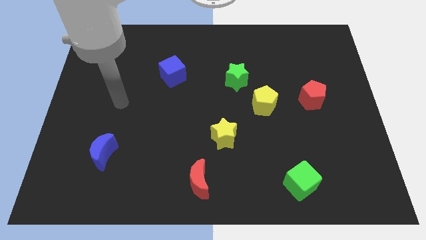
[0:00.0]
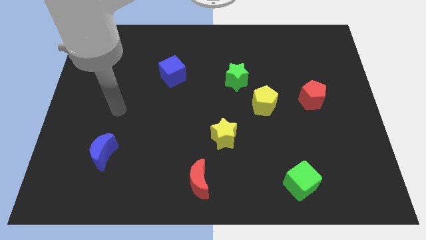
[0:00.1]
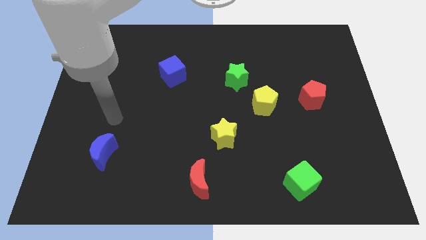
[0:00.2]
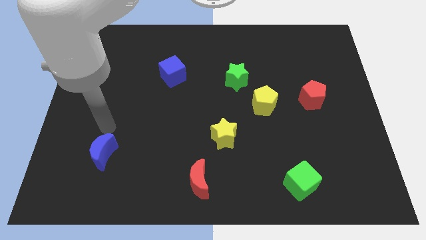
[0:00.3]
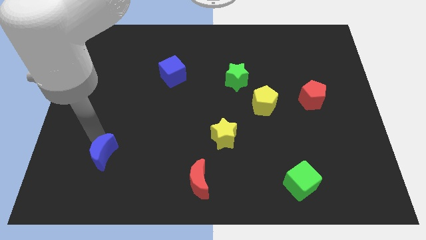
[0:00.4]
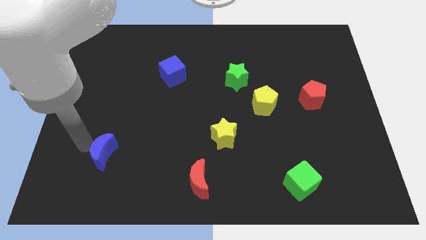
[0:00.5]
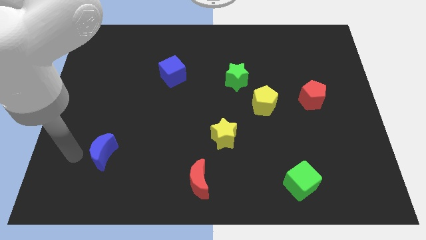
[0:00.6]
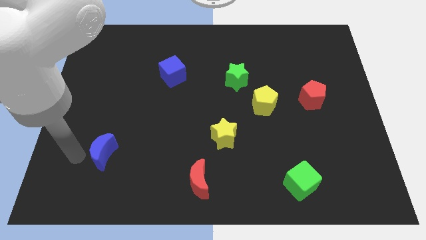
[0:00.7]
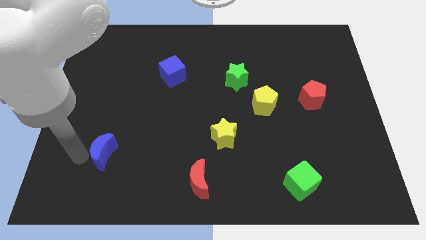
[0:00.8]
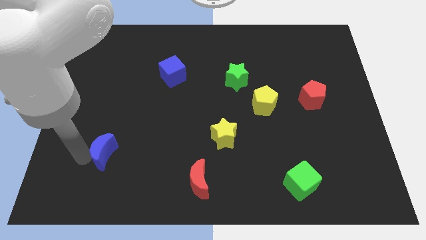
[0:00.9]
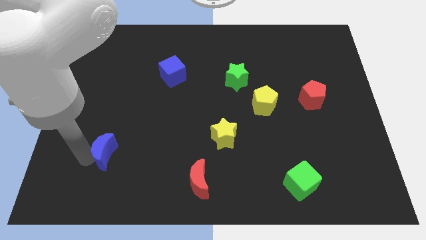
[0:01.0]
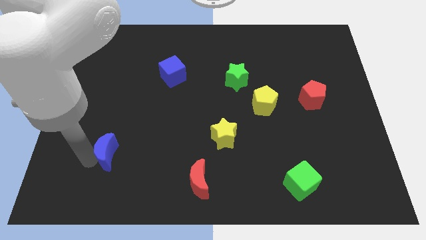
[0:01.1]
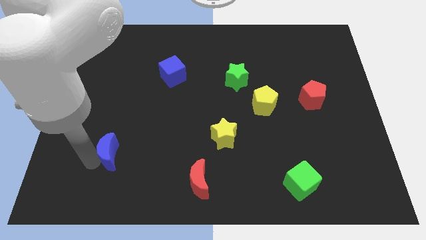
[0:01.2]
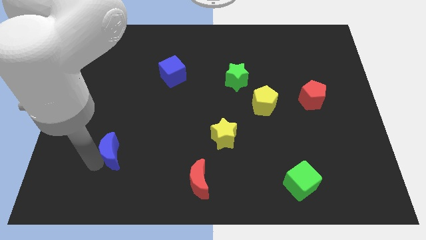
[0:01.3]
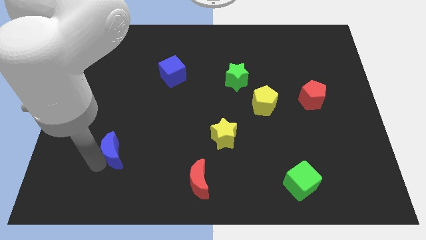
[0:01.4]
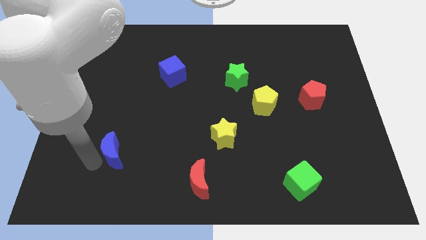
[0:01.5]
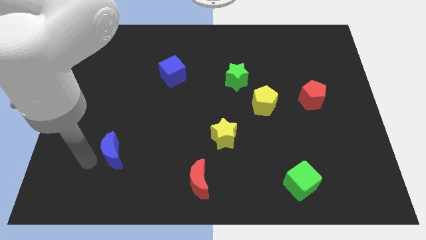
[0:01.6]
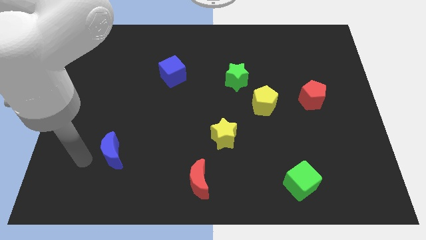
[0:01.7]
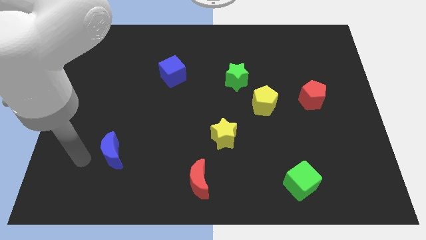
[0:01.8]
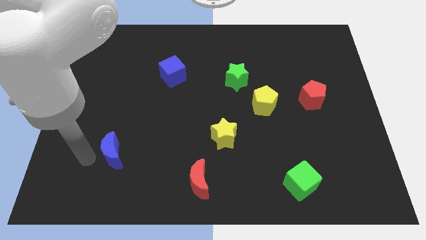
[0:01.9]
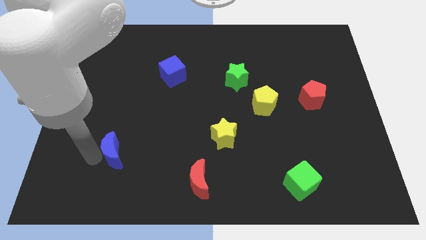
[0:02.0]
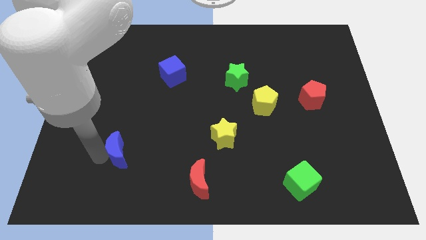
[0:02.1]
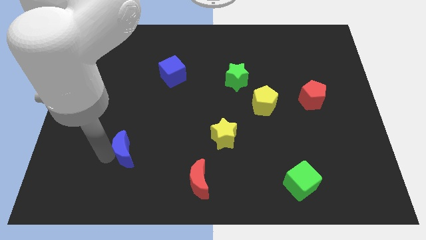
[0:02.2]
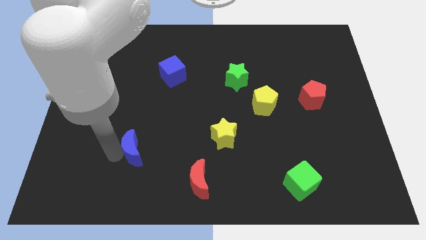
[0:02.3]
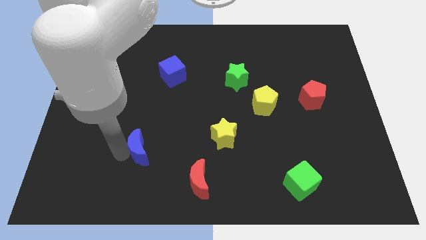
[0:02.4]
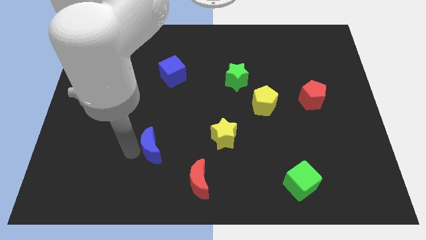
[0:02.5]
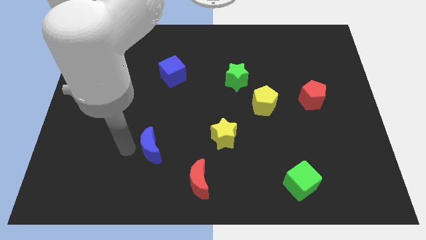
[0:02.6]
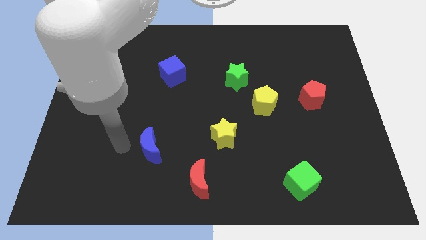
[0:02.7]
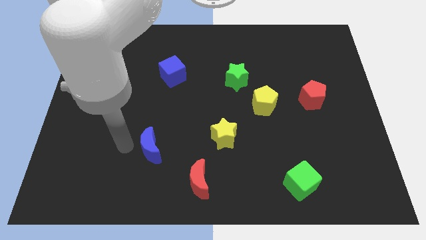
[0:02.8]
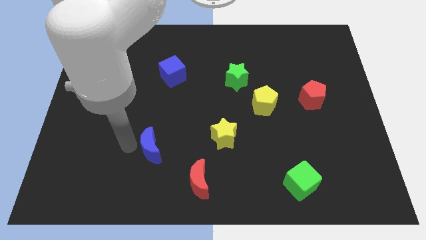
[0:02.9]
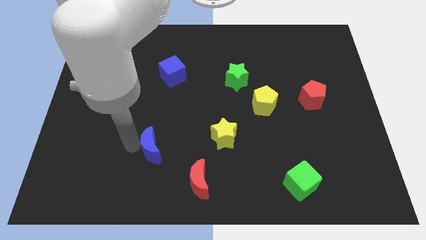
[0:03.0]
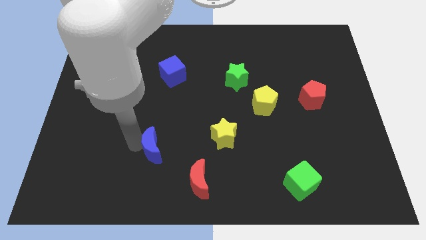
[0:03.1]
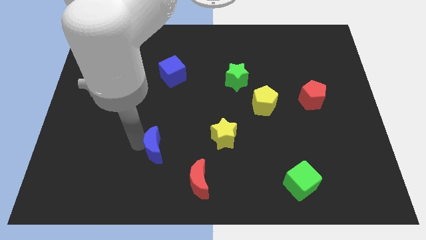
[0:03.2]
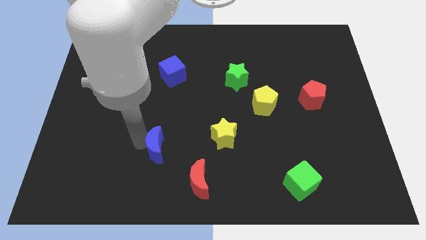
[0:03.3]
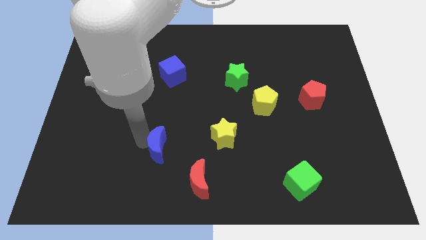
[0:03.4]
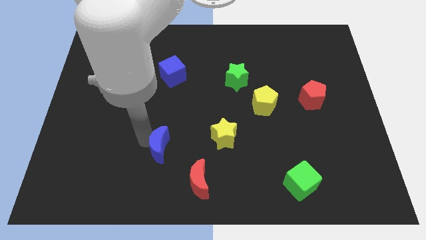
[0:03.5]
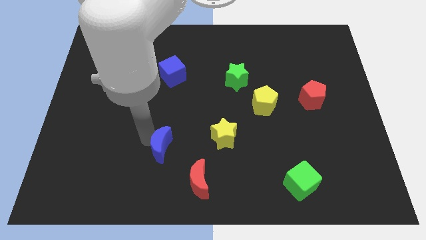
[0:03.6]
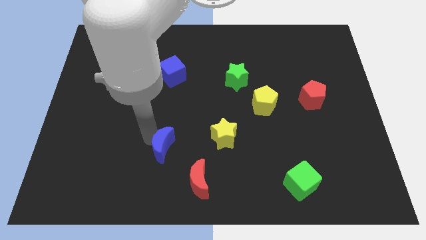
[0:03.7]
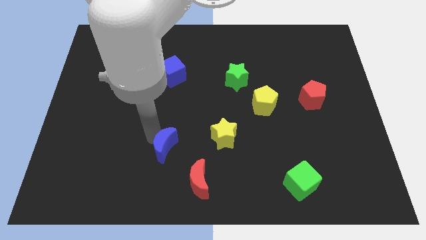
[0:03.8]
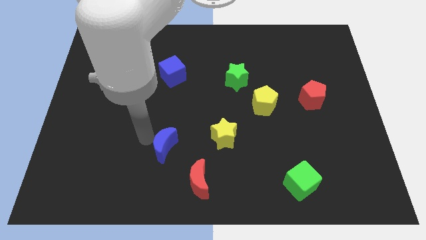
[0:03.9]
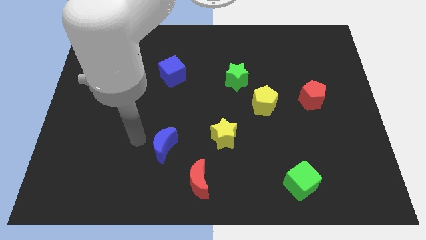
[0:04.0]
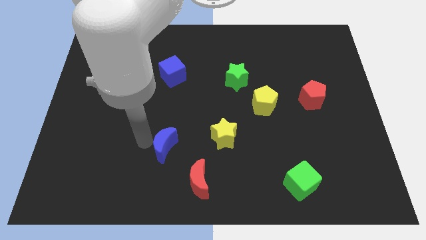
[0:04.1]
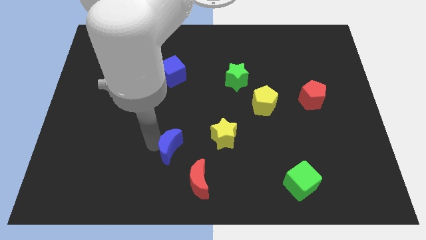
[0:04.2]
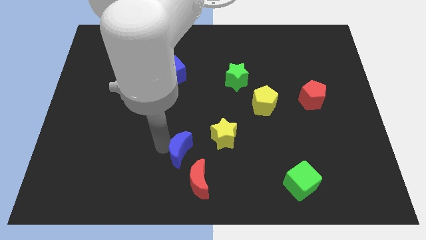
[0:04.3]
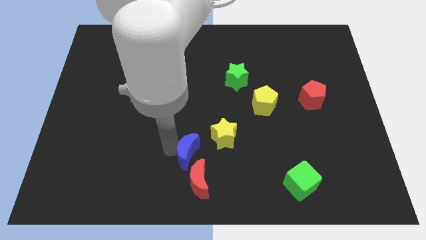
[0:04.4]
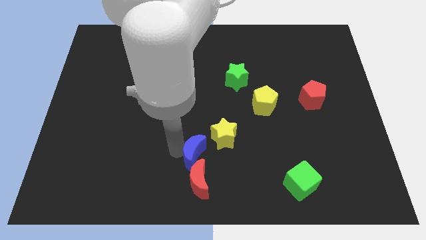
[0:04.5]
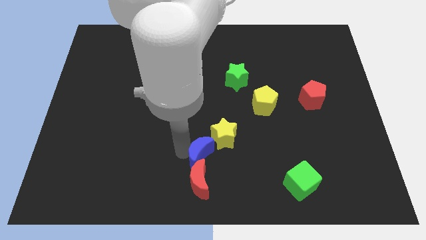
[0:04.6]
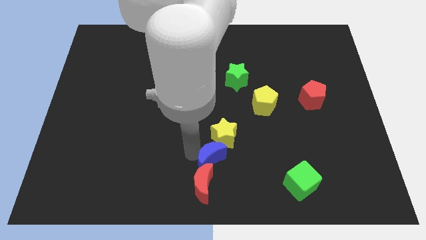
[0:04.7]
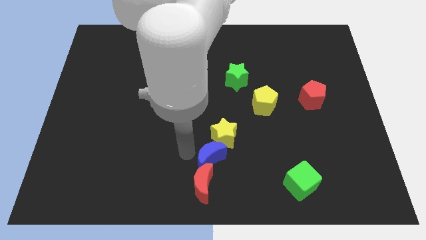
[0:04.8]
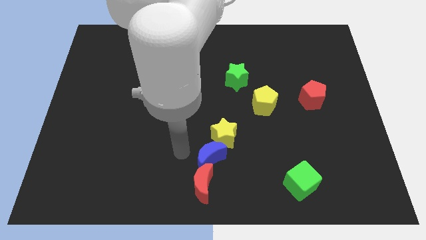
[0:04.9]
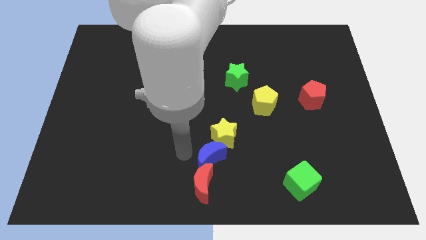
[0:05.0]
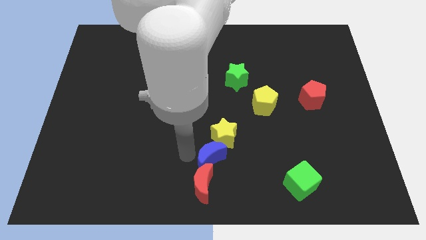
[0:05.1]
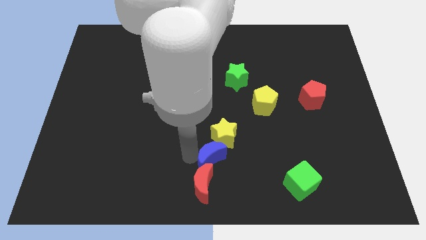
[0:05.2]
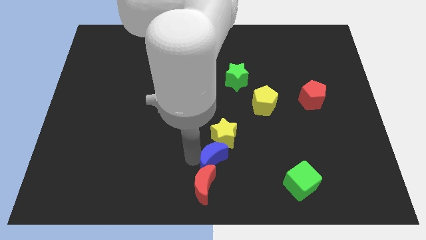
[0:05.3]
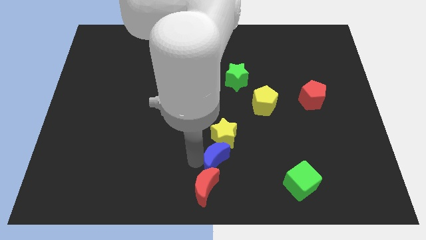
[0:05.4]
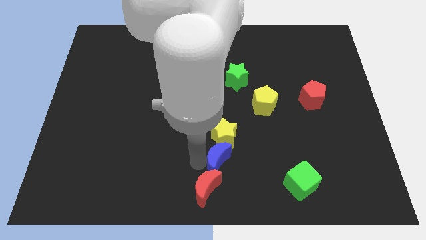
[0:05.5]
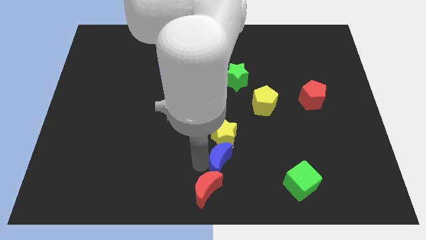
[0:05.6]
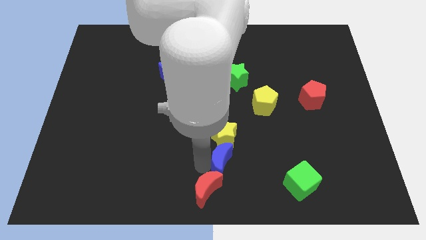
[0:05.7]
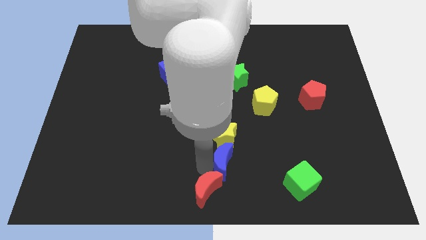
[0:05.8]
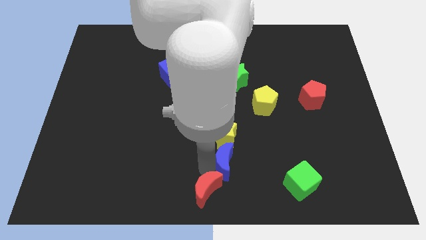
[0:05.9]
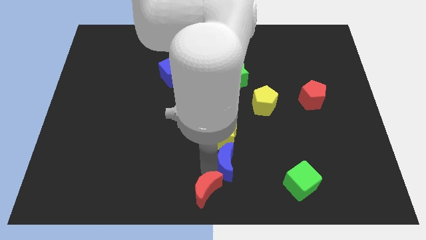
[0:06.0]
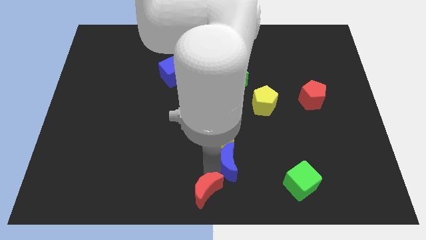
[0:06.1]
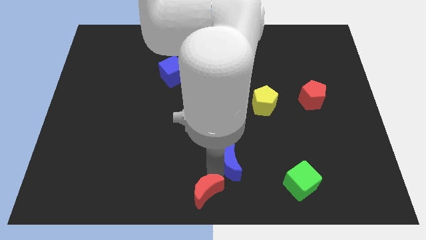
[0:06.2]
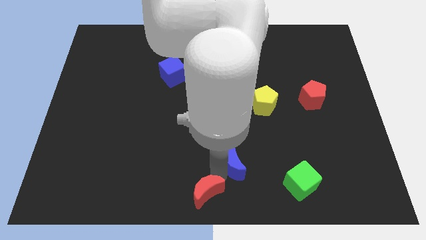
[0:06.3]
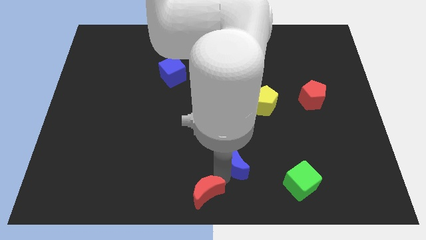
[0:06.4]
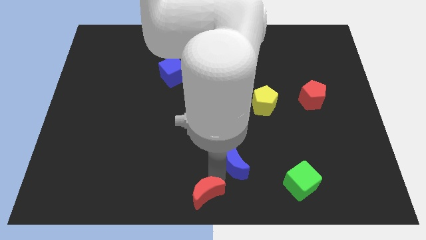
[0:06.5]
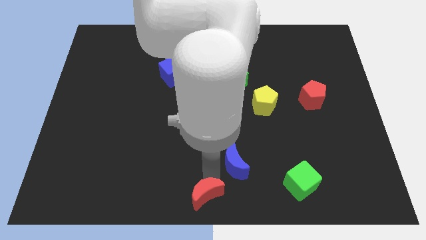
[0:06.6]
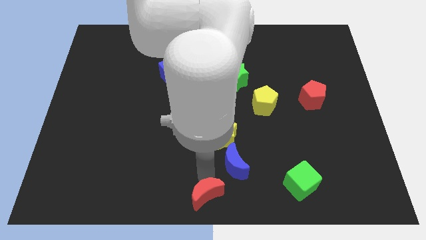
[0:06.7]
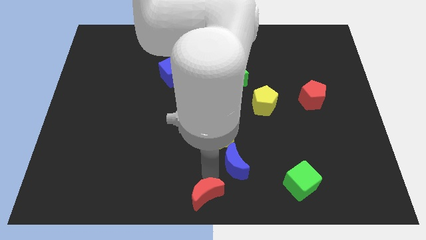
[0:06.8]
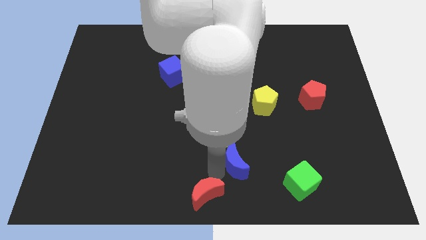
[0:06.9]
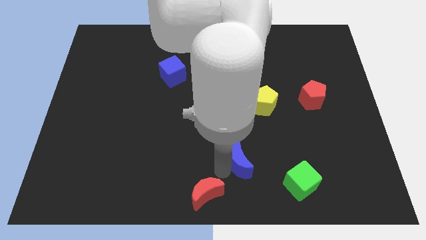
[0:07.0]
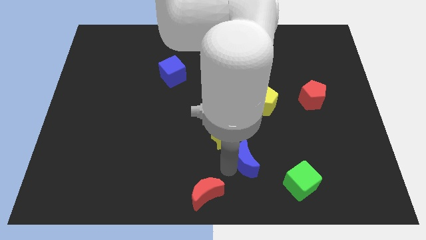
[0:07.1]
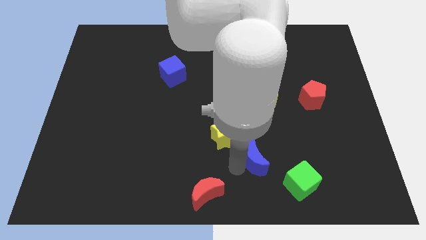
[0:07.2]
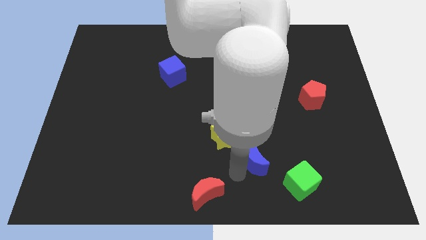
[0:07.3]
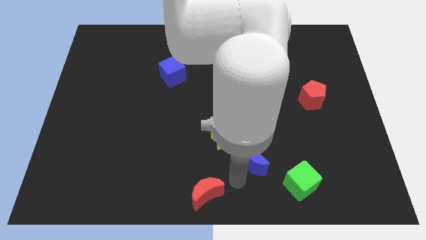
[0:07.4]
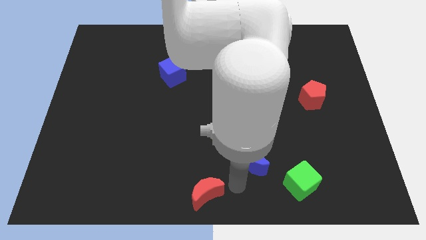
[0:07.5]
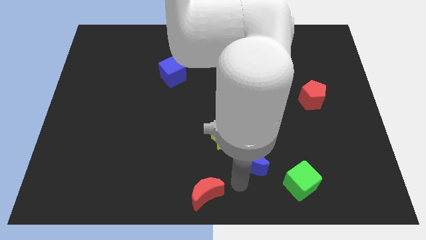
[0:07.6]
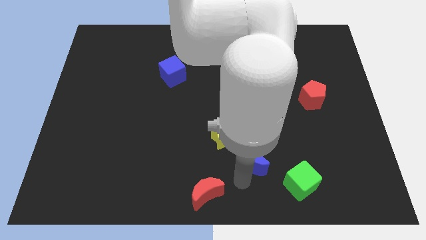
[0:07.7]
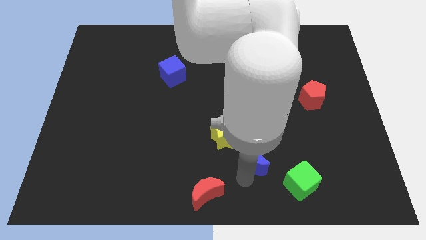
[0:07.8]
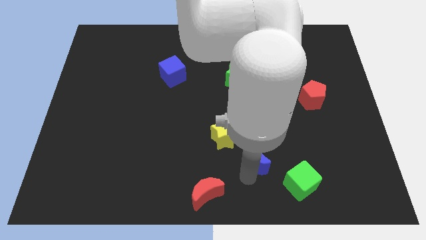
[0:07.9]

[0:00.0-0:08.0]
move the blue moon to the bottom of the yellow pentagon
